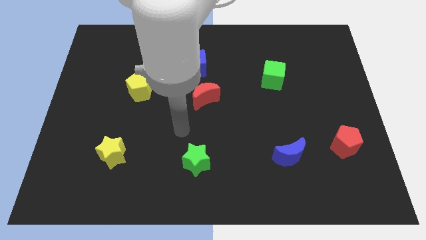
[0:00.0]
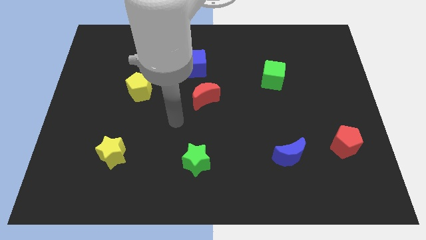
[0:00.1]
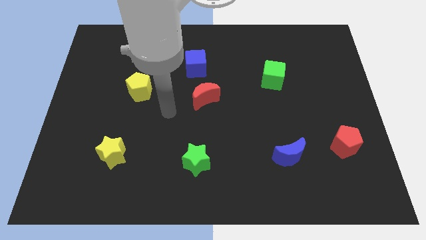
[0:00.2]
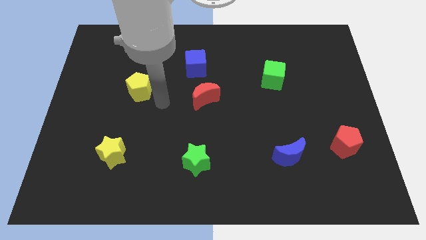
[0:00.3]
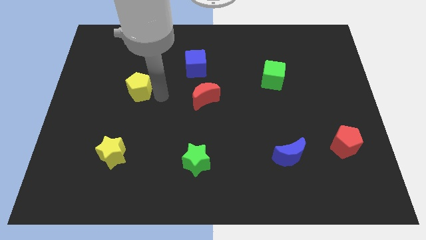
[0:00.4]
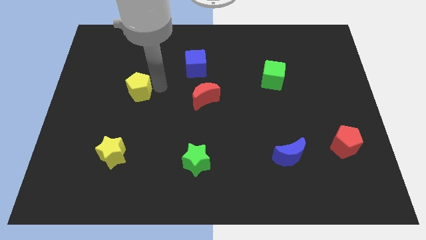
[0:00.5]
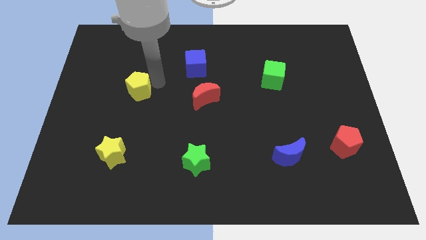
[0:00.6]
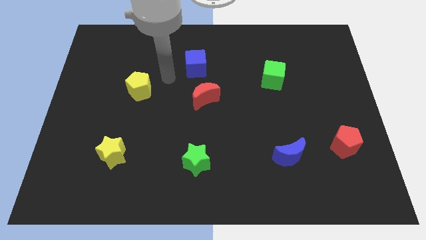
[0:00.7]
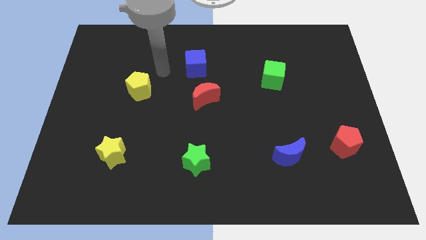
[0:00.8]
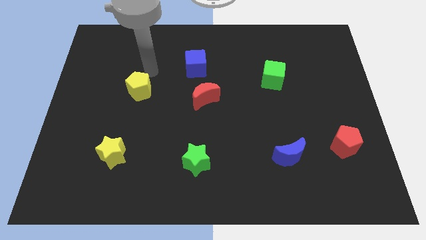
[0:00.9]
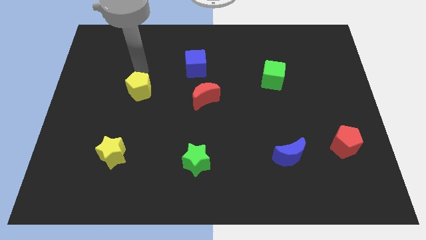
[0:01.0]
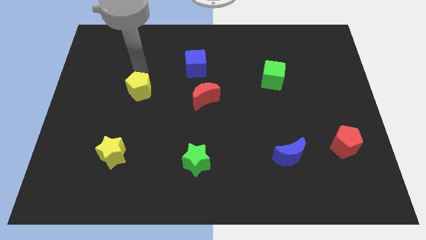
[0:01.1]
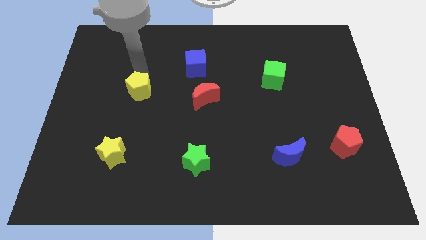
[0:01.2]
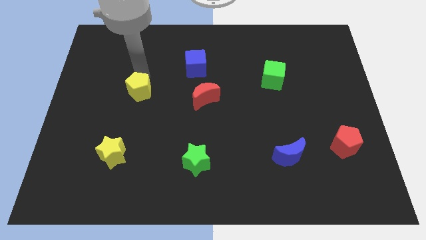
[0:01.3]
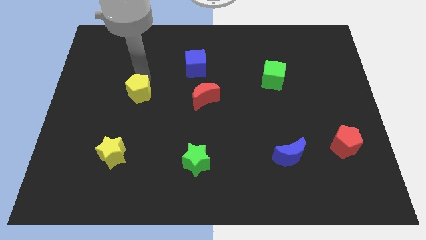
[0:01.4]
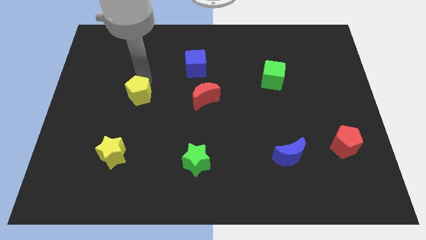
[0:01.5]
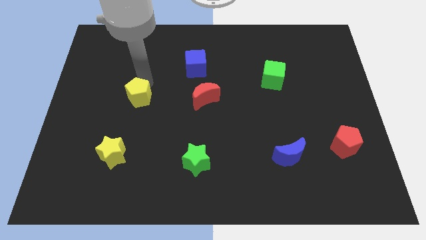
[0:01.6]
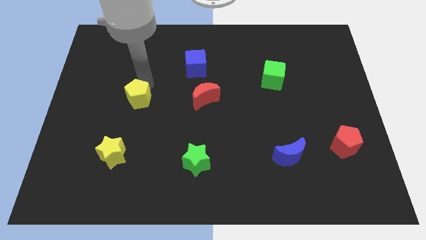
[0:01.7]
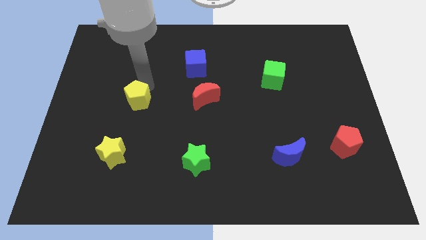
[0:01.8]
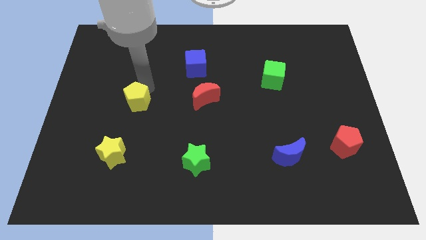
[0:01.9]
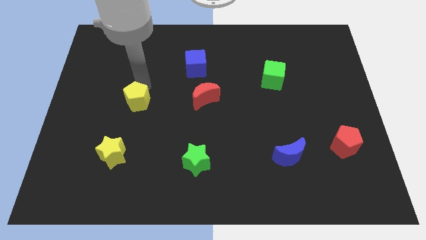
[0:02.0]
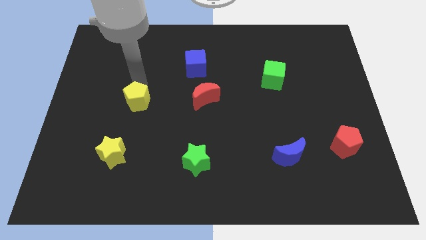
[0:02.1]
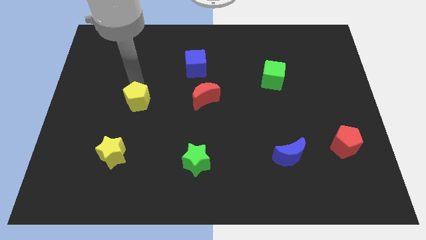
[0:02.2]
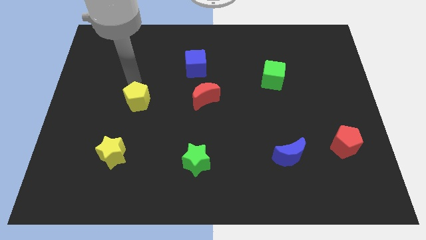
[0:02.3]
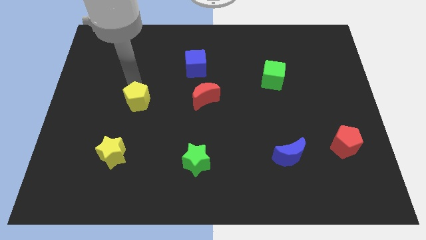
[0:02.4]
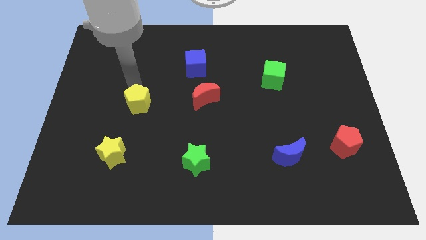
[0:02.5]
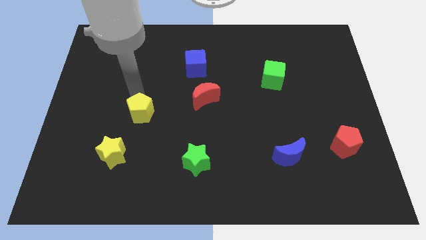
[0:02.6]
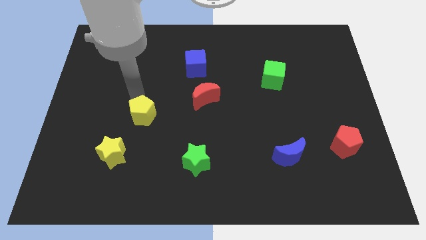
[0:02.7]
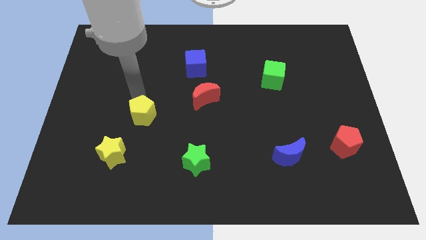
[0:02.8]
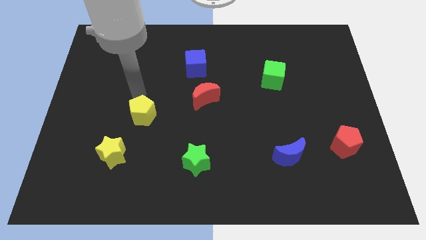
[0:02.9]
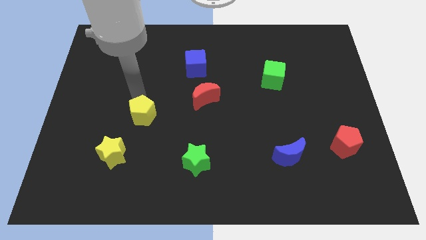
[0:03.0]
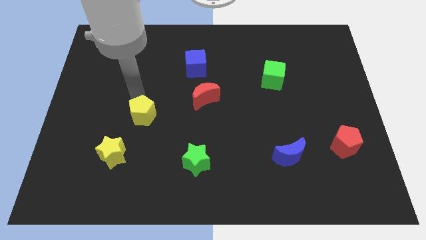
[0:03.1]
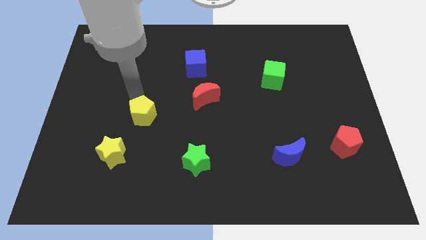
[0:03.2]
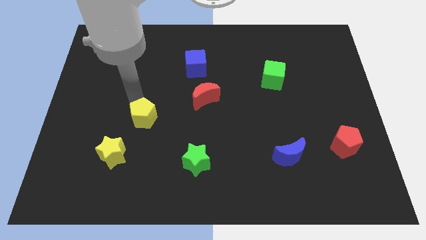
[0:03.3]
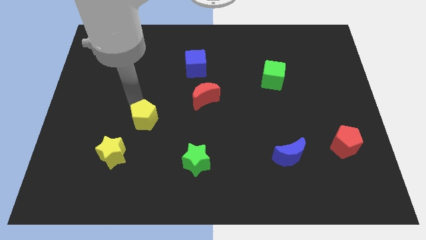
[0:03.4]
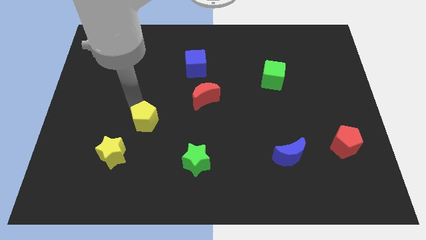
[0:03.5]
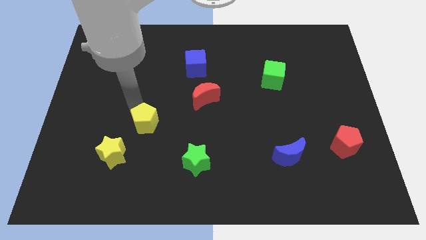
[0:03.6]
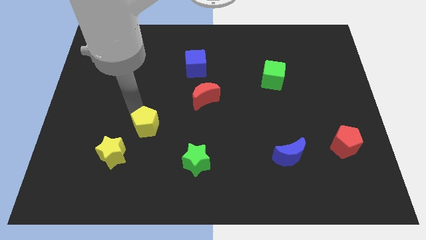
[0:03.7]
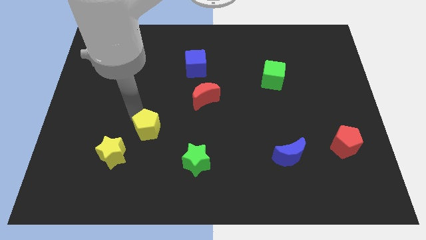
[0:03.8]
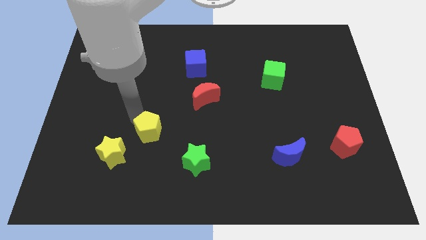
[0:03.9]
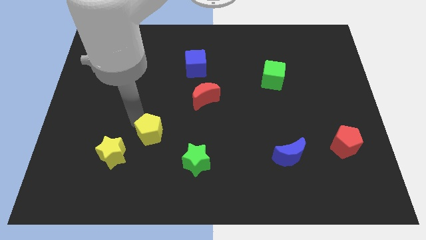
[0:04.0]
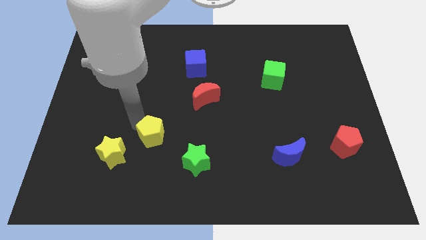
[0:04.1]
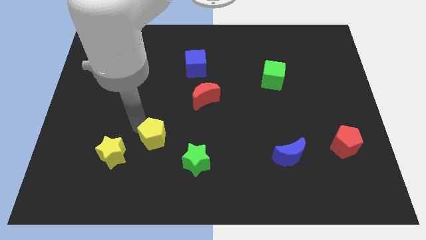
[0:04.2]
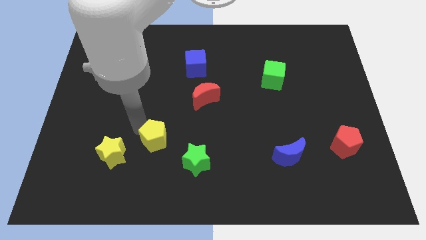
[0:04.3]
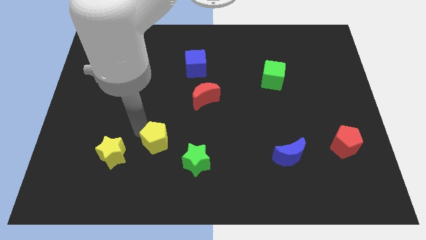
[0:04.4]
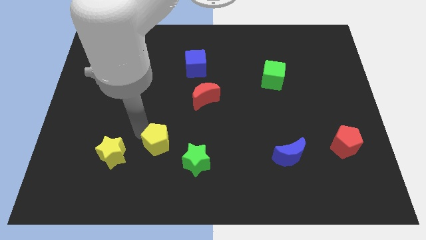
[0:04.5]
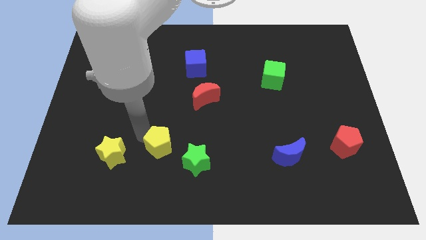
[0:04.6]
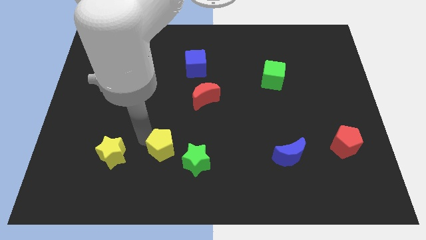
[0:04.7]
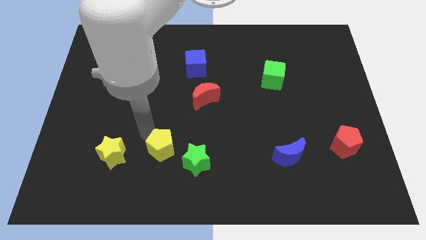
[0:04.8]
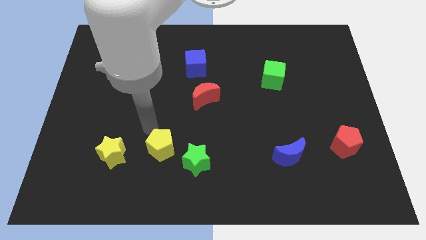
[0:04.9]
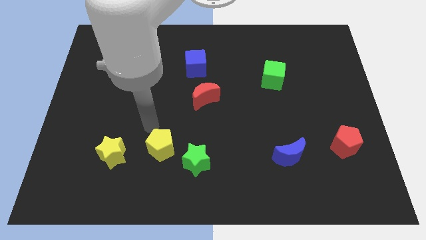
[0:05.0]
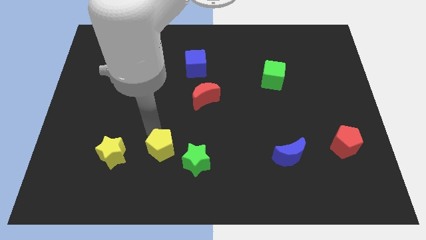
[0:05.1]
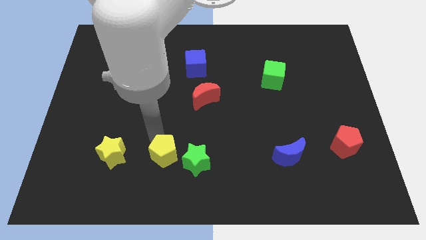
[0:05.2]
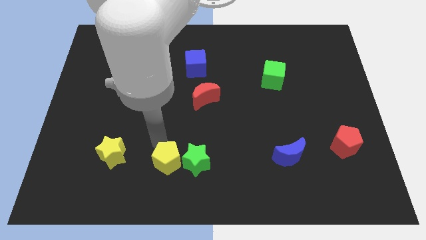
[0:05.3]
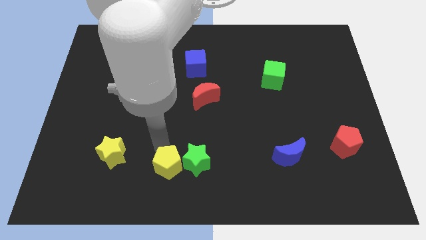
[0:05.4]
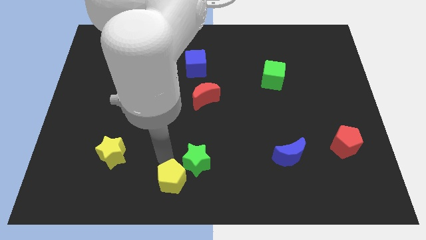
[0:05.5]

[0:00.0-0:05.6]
put the yellow pentagon to the bottom side
